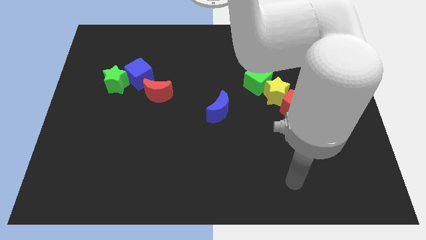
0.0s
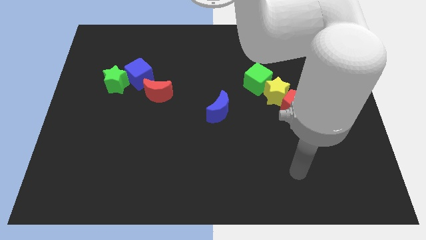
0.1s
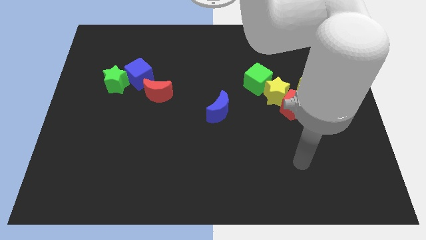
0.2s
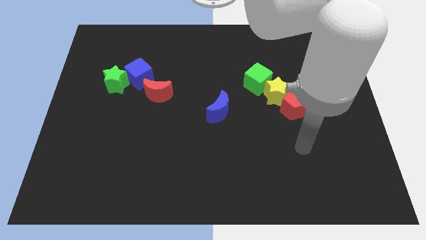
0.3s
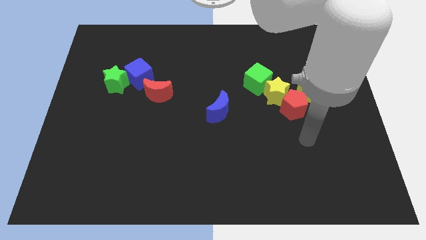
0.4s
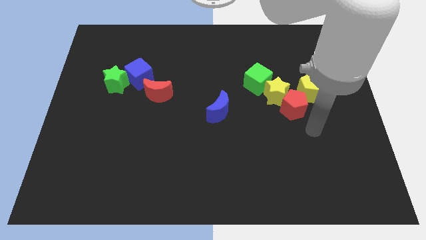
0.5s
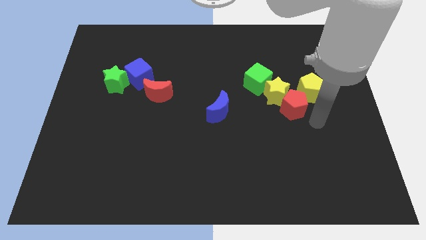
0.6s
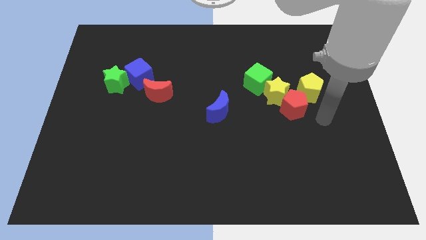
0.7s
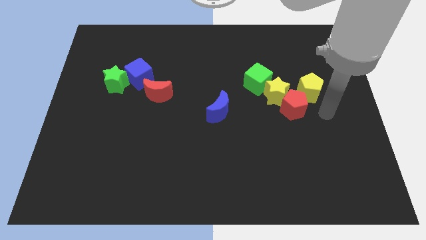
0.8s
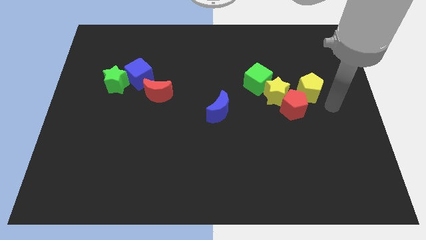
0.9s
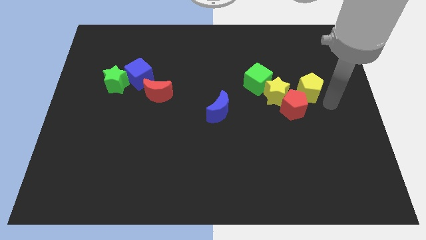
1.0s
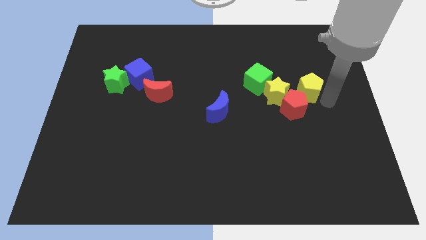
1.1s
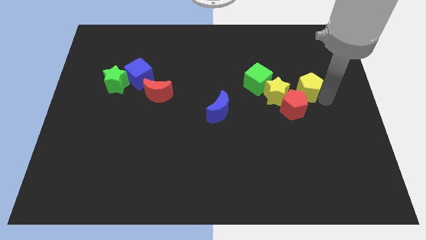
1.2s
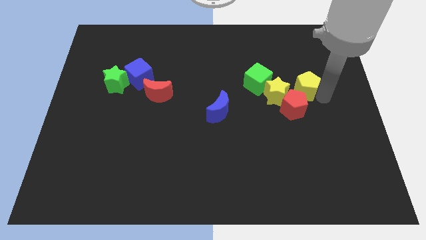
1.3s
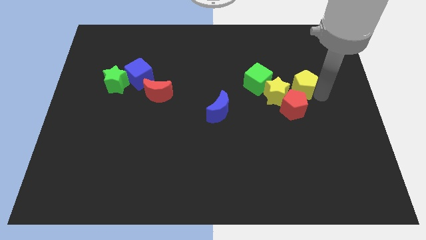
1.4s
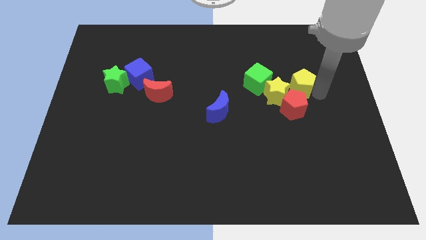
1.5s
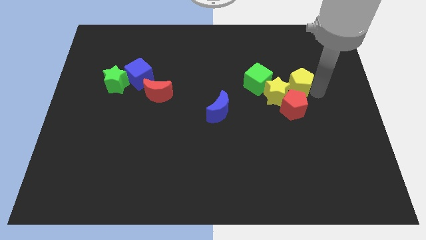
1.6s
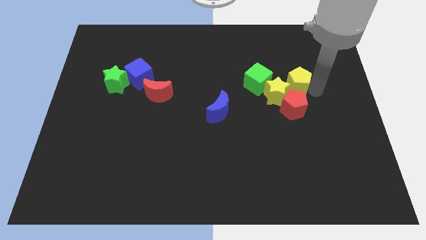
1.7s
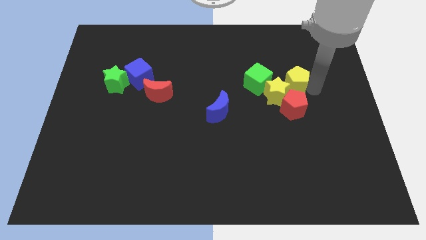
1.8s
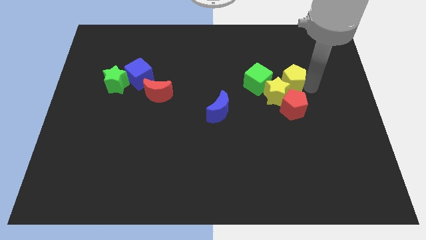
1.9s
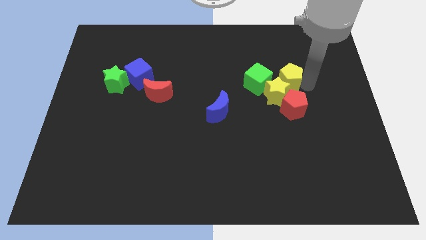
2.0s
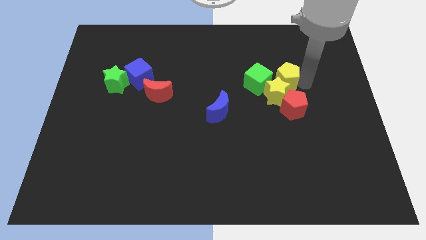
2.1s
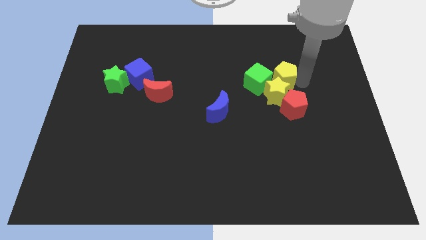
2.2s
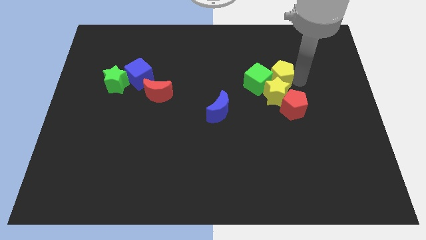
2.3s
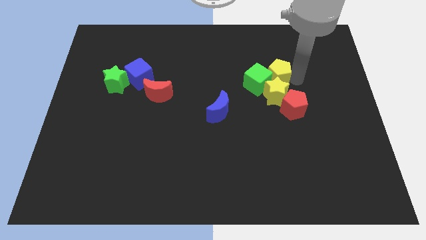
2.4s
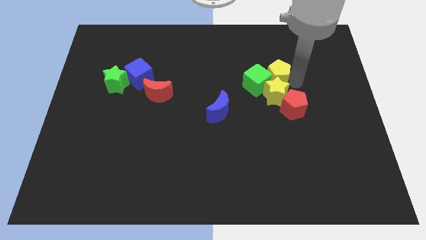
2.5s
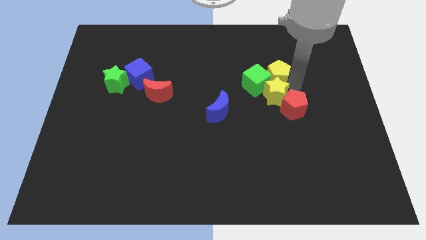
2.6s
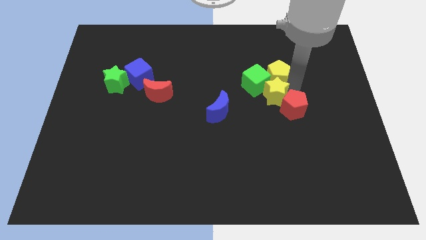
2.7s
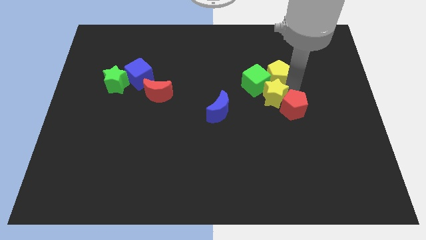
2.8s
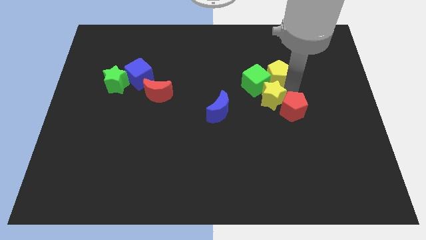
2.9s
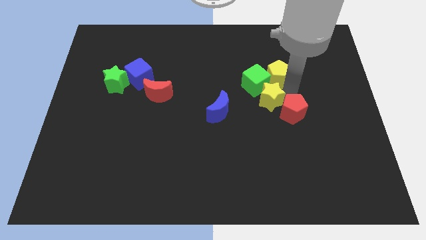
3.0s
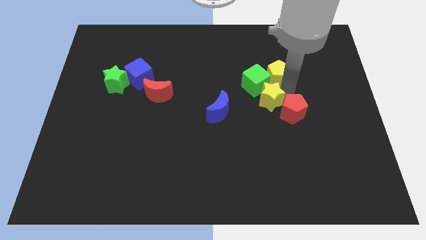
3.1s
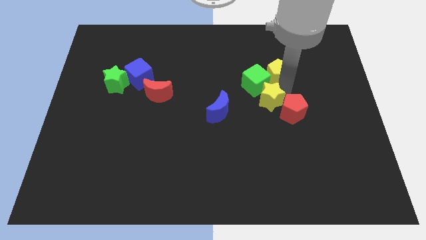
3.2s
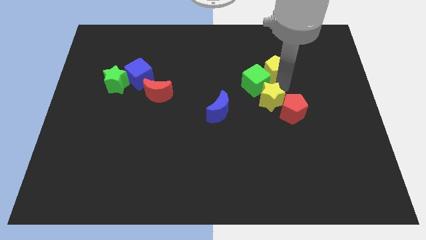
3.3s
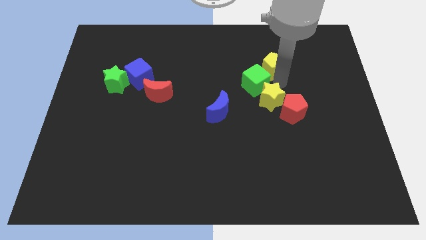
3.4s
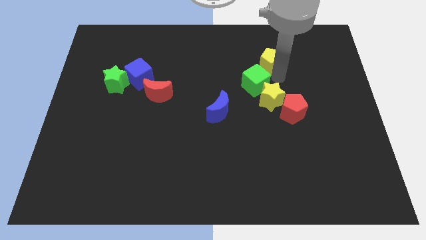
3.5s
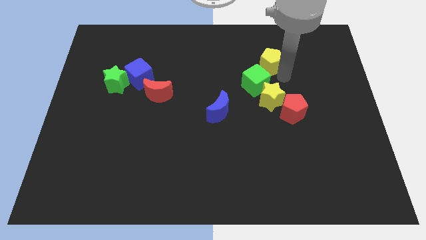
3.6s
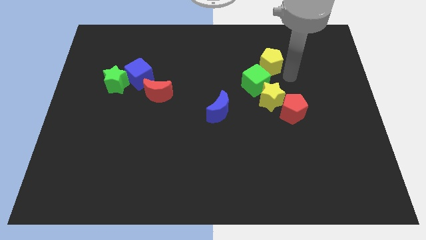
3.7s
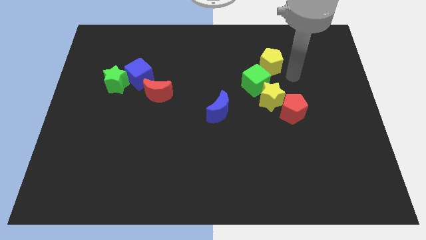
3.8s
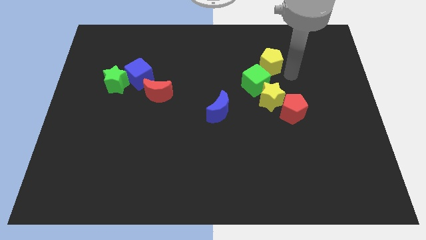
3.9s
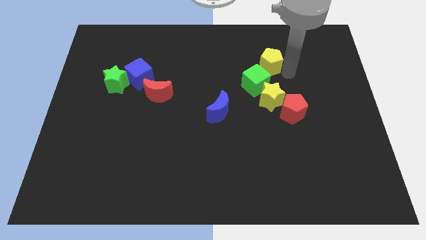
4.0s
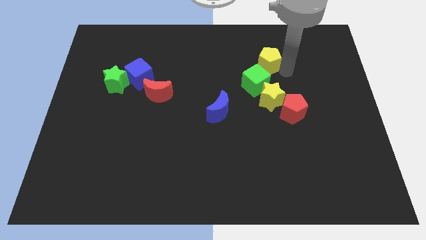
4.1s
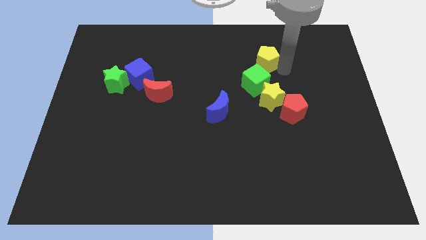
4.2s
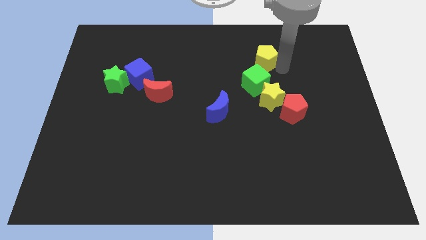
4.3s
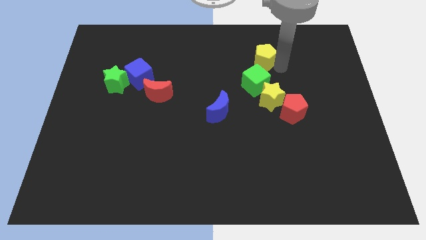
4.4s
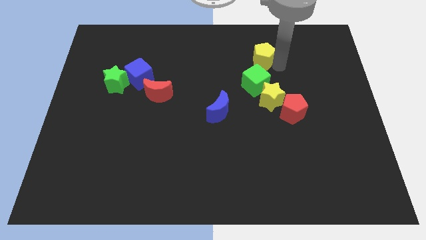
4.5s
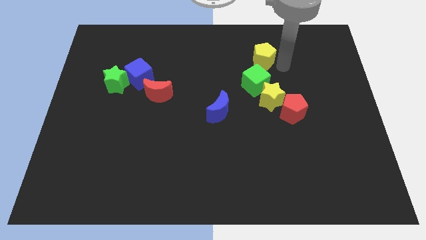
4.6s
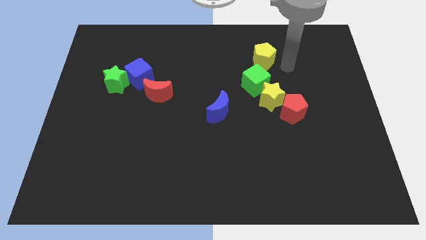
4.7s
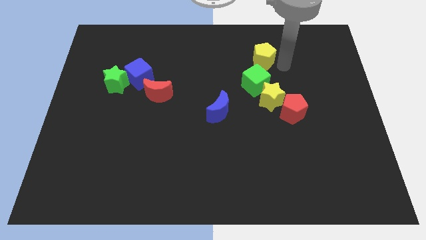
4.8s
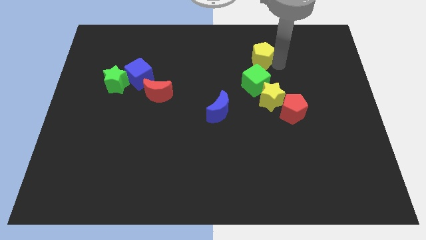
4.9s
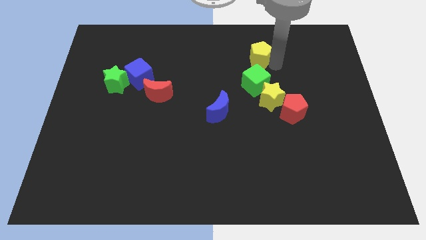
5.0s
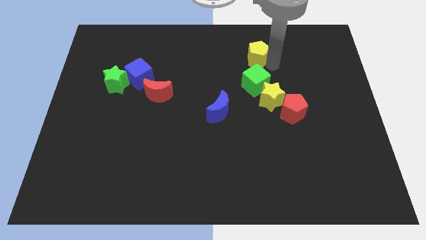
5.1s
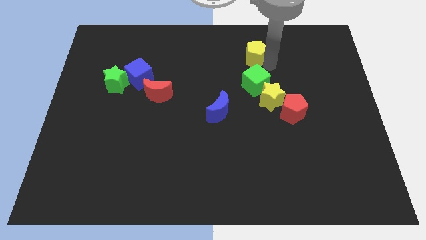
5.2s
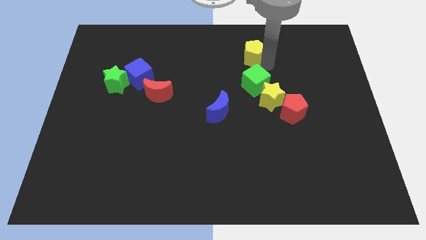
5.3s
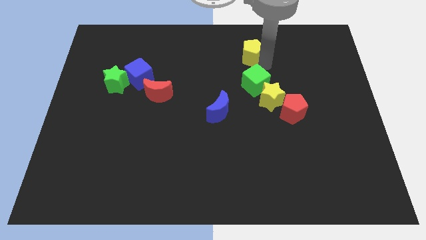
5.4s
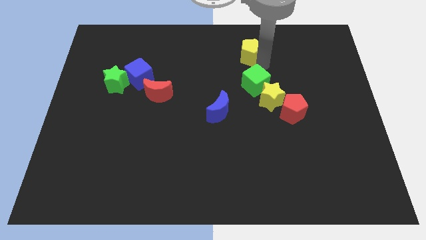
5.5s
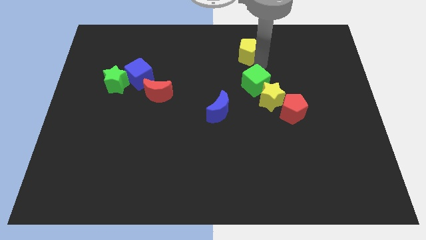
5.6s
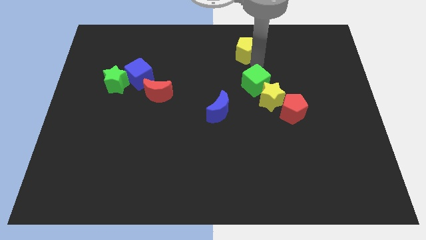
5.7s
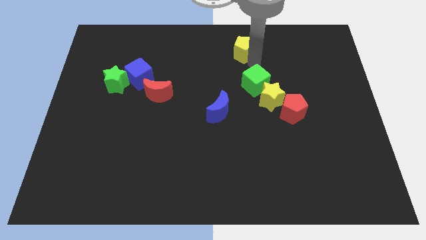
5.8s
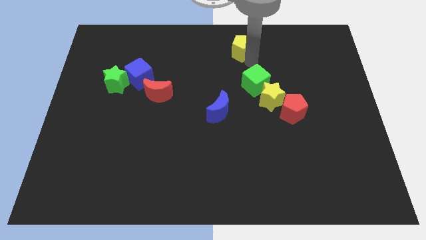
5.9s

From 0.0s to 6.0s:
push the yellow pentagon to the top

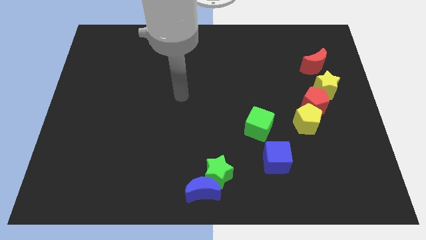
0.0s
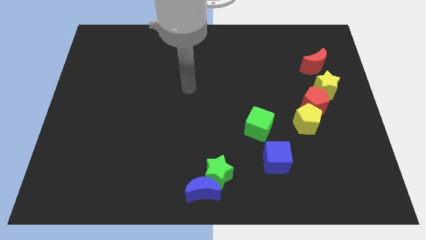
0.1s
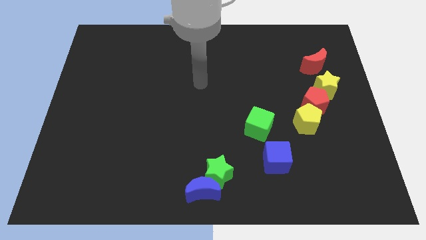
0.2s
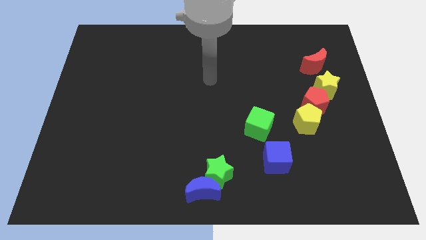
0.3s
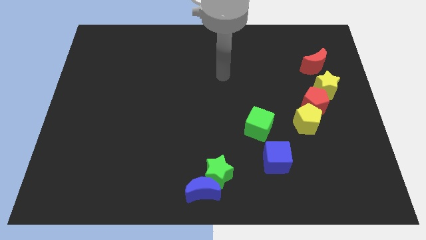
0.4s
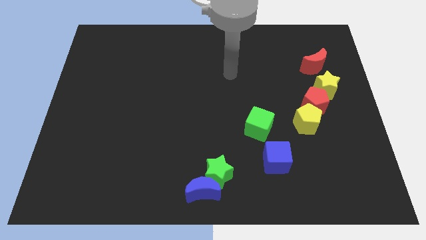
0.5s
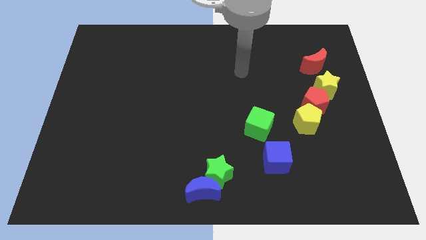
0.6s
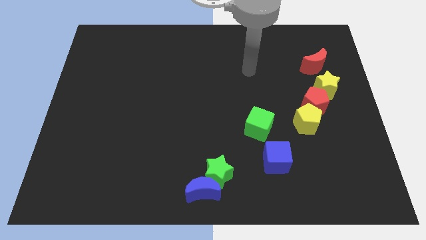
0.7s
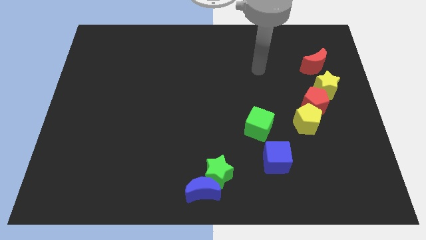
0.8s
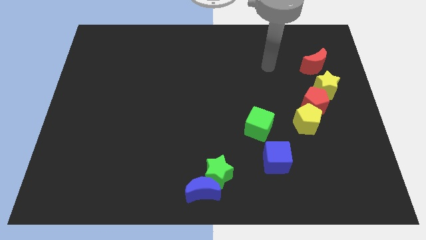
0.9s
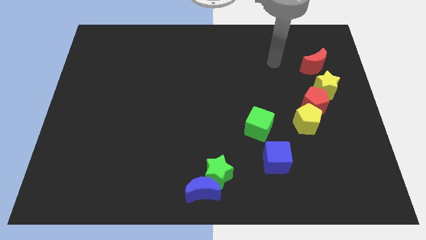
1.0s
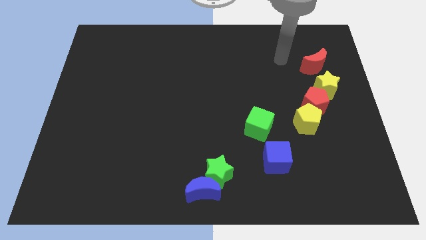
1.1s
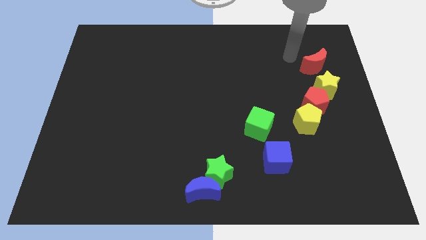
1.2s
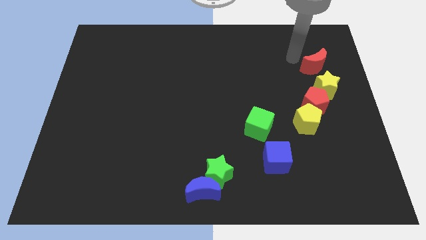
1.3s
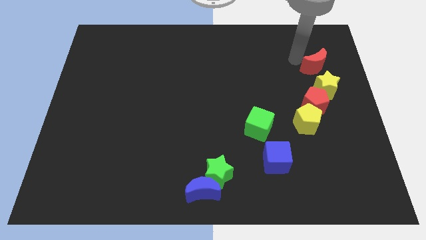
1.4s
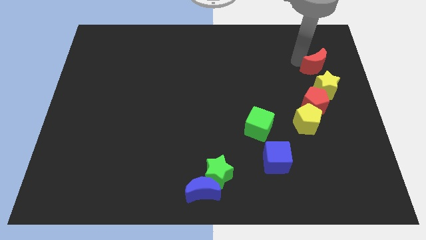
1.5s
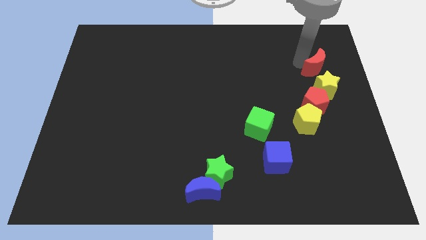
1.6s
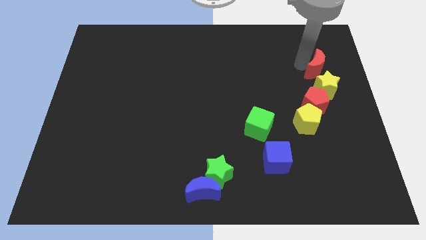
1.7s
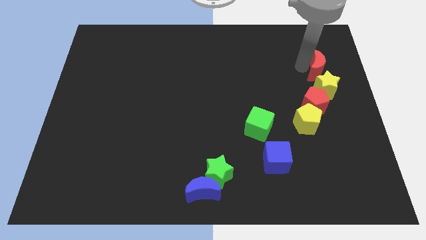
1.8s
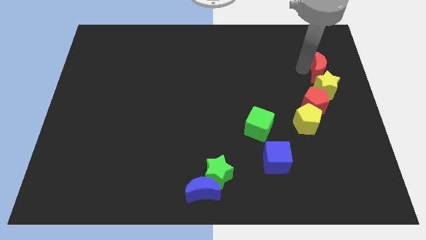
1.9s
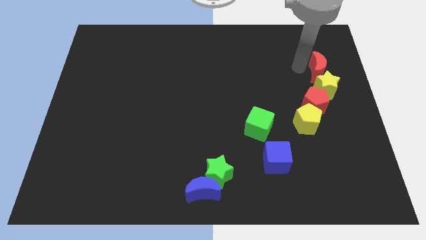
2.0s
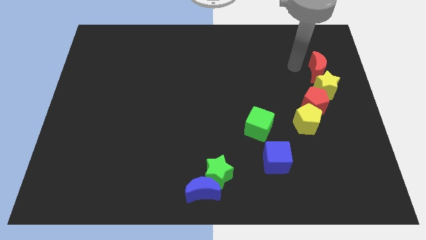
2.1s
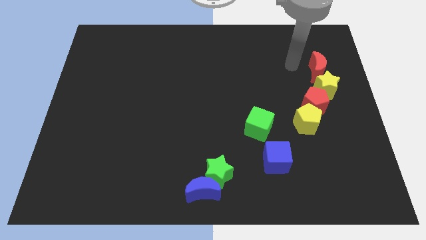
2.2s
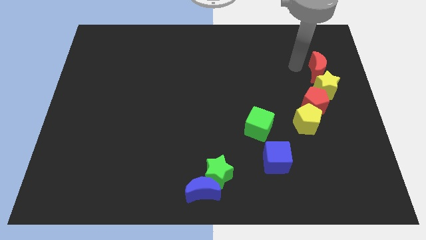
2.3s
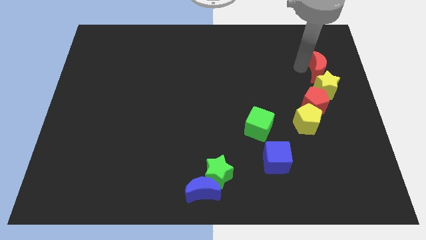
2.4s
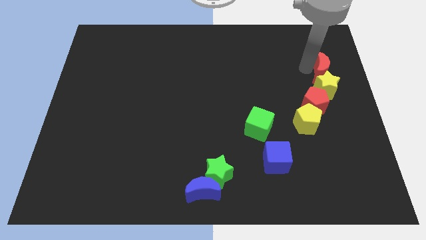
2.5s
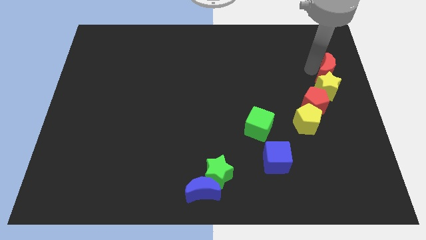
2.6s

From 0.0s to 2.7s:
slide the red moon to the right side of the board

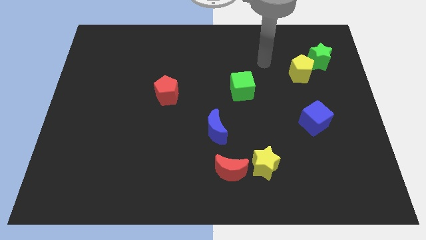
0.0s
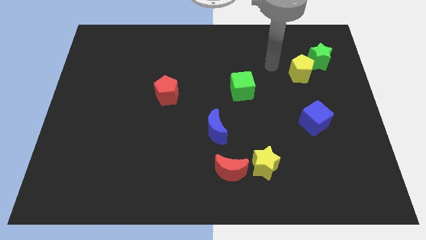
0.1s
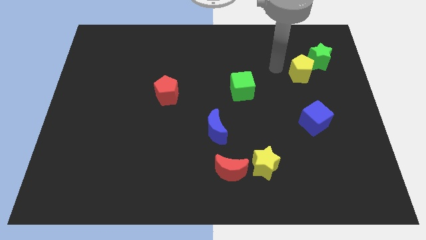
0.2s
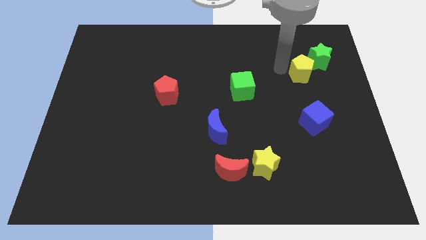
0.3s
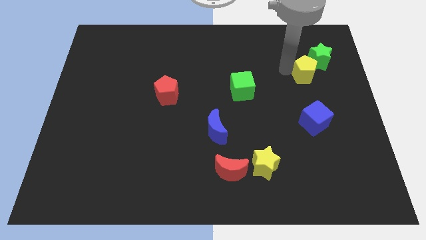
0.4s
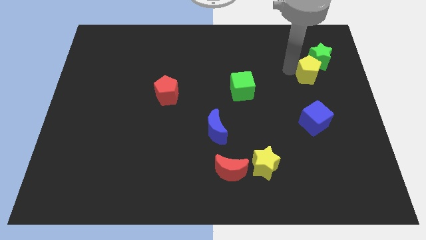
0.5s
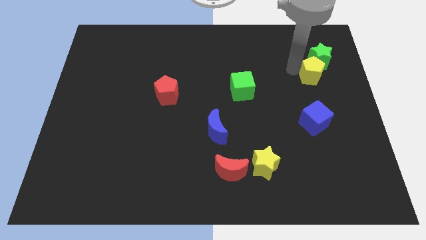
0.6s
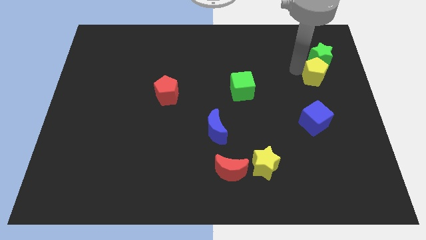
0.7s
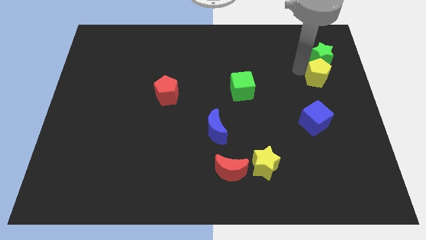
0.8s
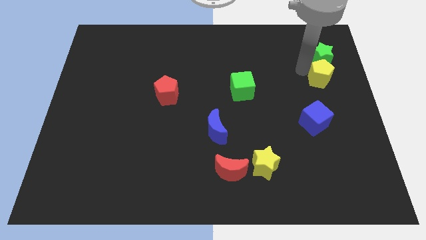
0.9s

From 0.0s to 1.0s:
move the yellow pentagon to the center right
